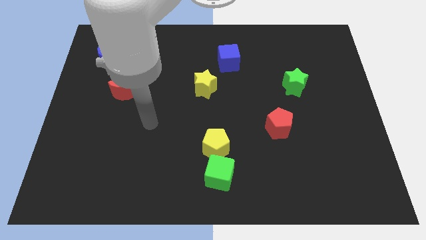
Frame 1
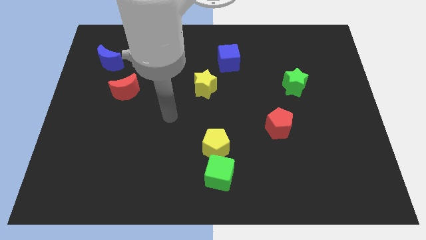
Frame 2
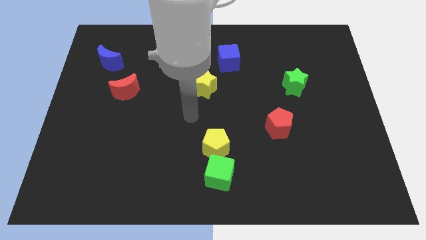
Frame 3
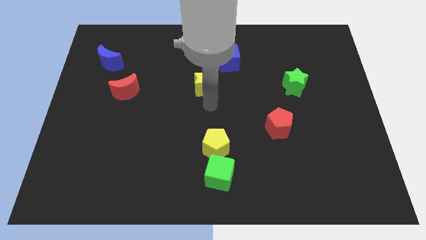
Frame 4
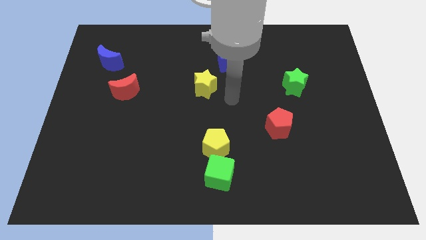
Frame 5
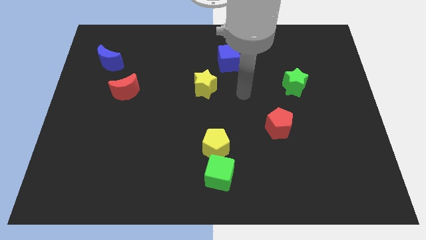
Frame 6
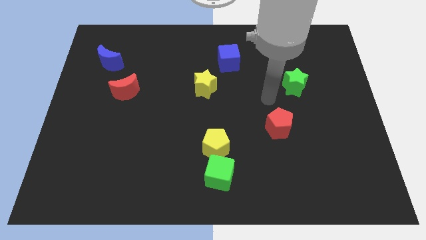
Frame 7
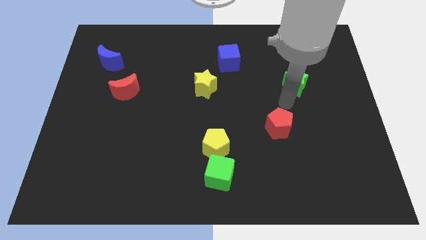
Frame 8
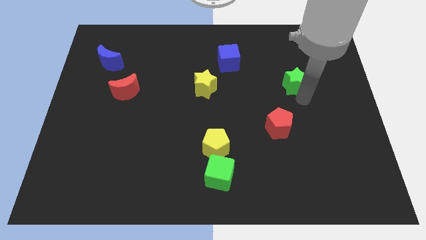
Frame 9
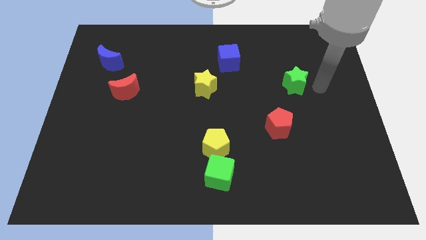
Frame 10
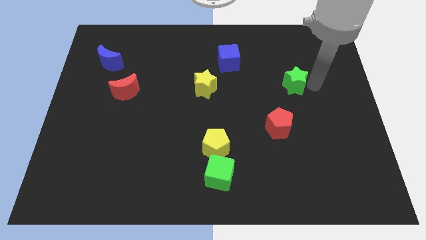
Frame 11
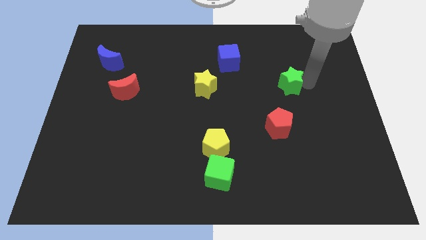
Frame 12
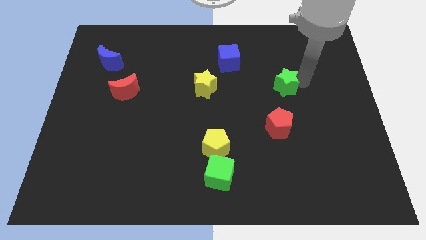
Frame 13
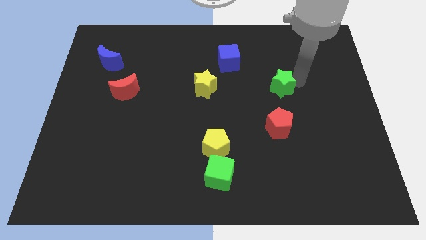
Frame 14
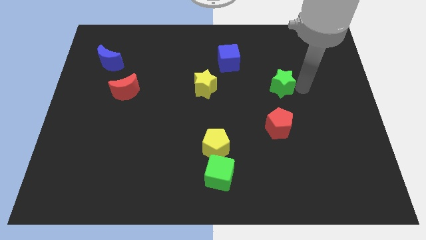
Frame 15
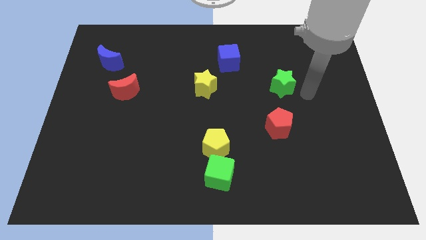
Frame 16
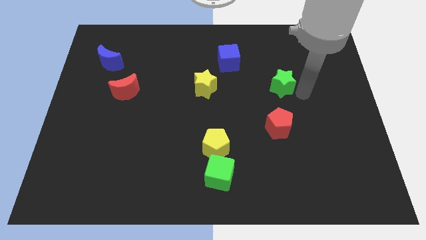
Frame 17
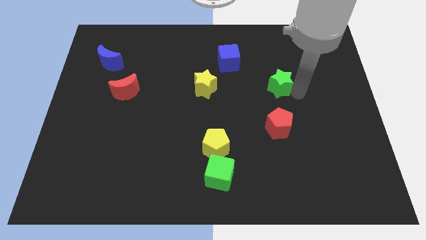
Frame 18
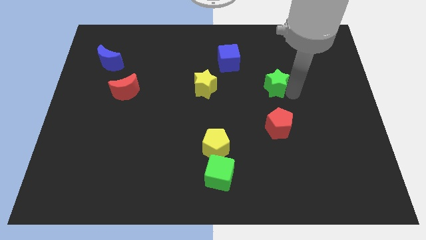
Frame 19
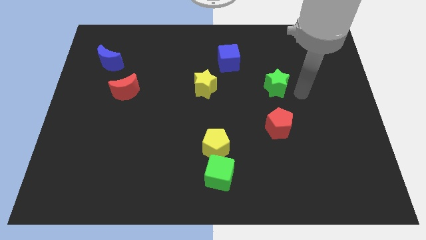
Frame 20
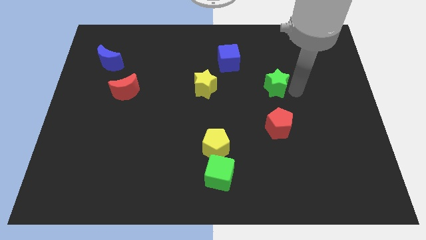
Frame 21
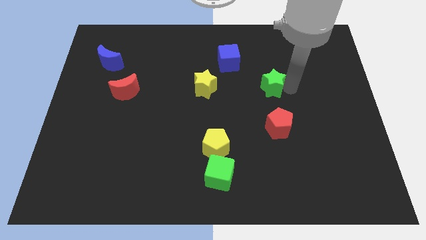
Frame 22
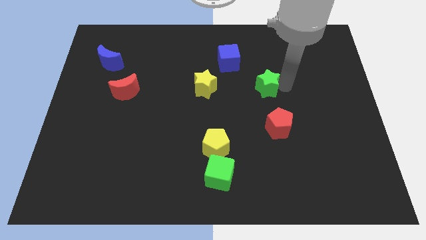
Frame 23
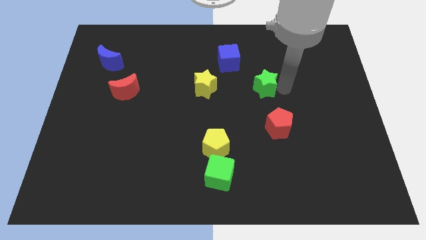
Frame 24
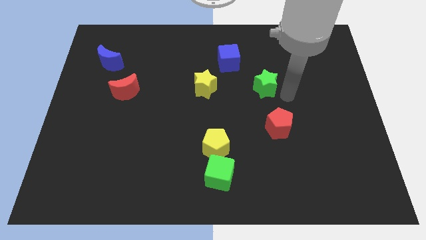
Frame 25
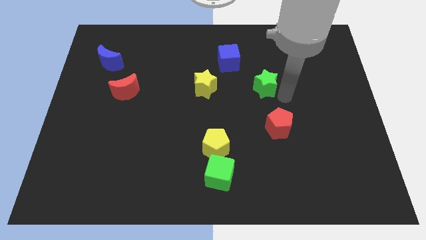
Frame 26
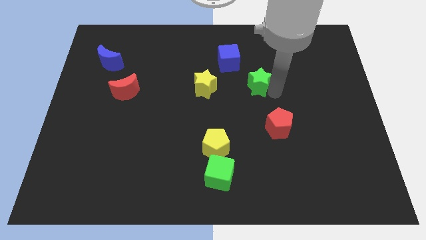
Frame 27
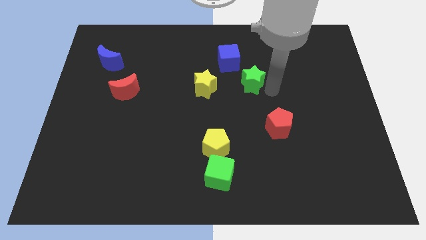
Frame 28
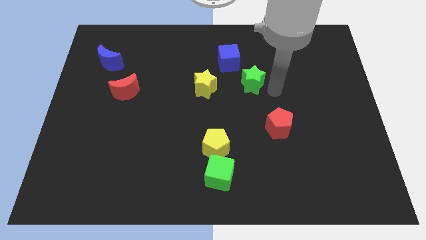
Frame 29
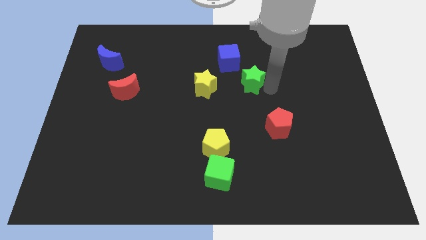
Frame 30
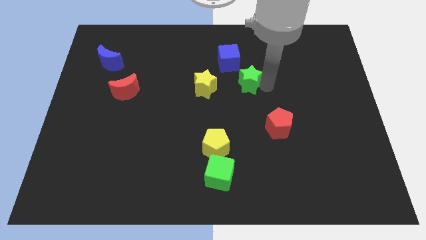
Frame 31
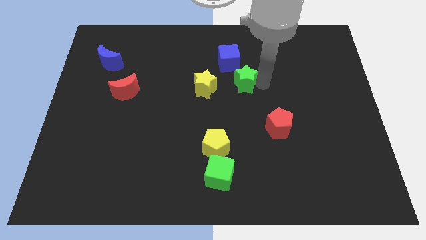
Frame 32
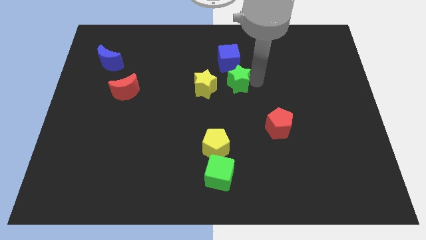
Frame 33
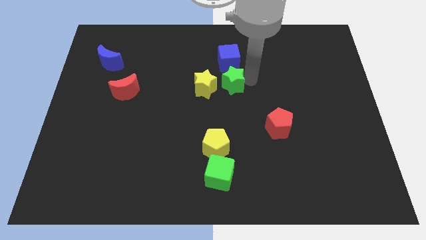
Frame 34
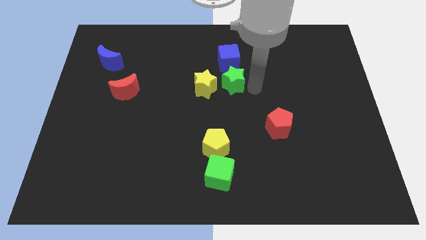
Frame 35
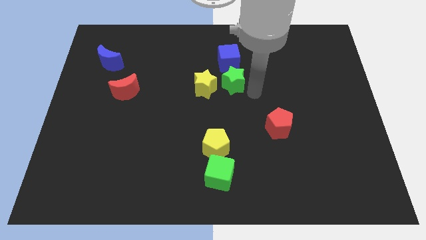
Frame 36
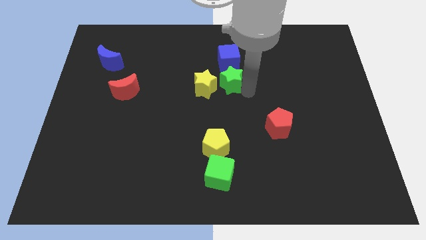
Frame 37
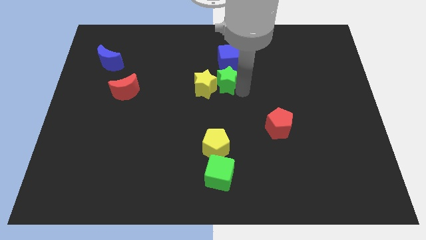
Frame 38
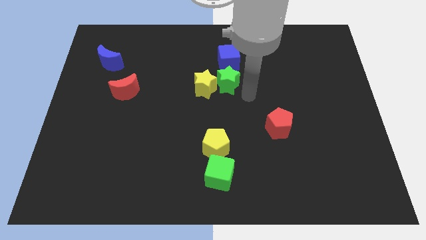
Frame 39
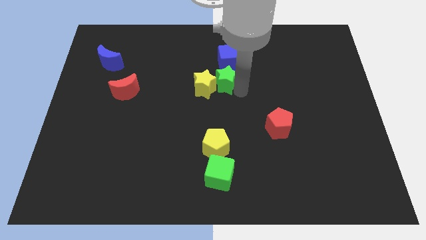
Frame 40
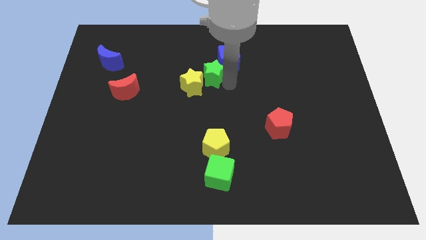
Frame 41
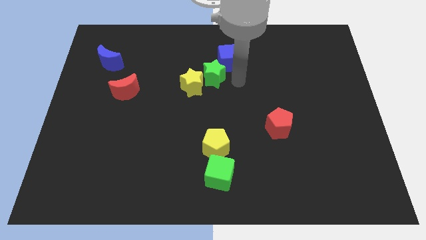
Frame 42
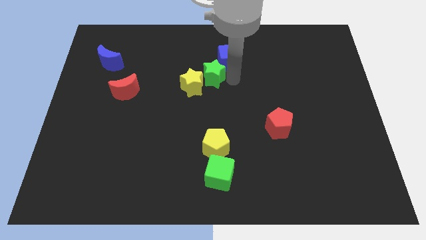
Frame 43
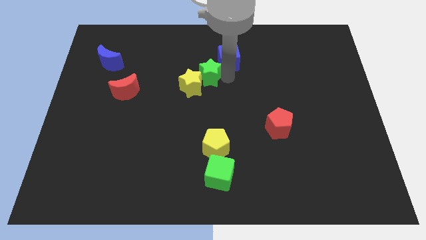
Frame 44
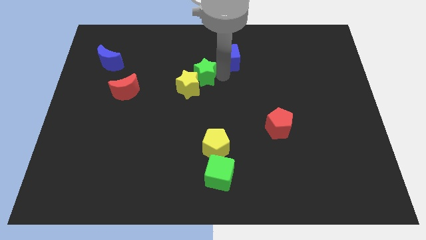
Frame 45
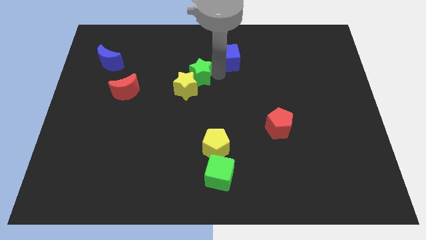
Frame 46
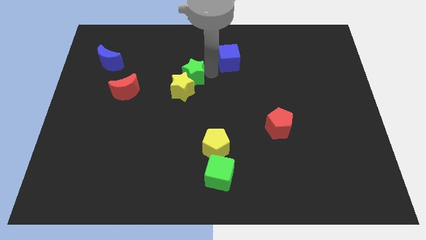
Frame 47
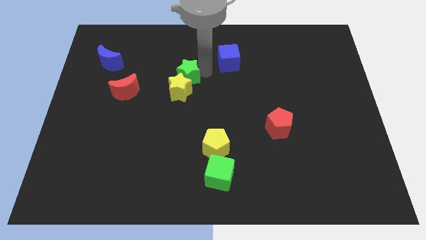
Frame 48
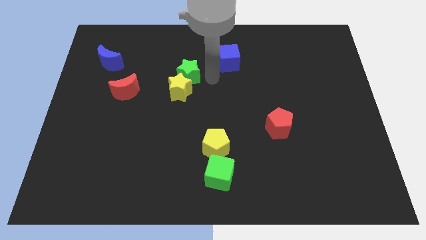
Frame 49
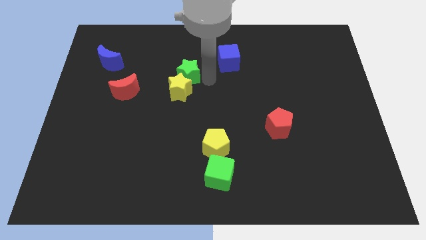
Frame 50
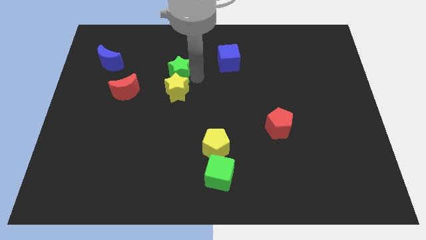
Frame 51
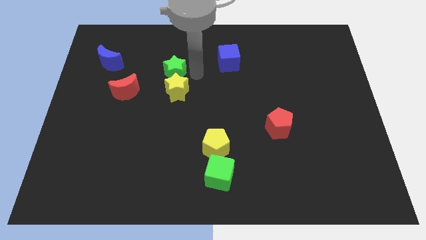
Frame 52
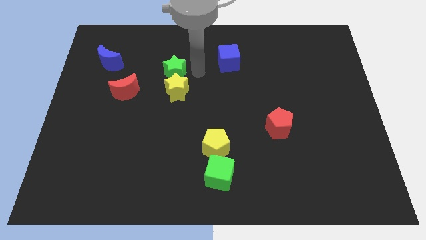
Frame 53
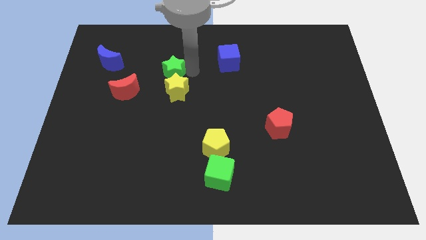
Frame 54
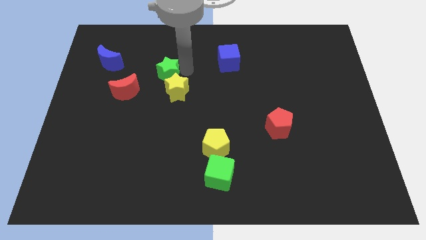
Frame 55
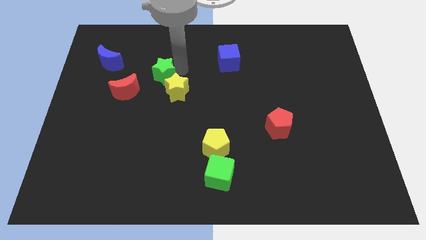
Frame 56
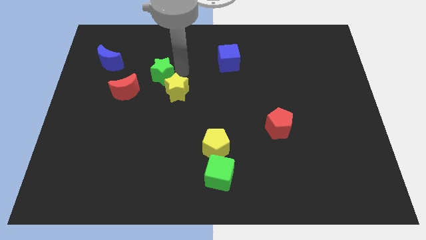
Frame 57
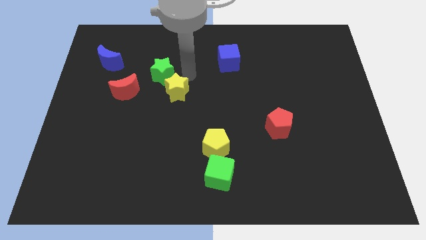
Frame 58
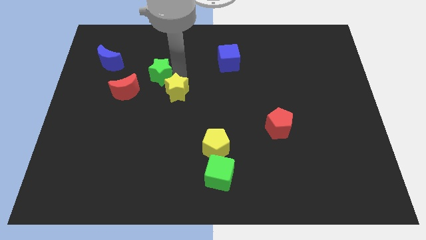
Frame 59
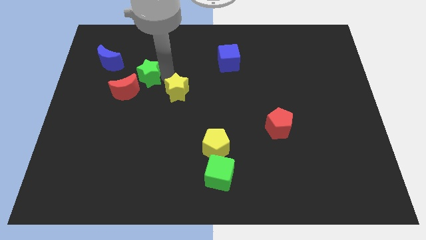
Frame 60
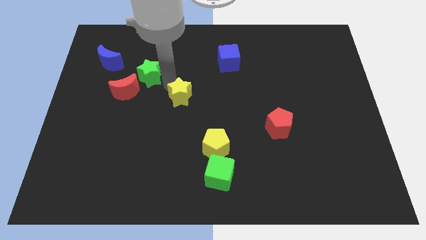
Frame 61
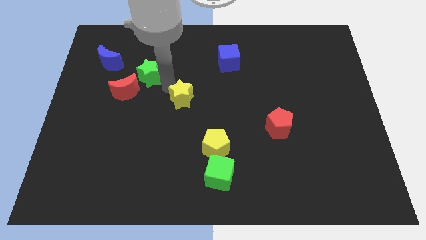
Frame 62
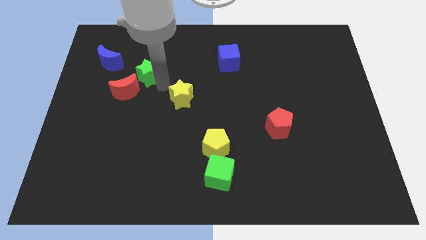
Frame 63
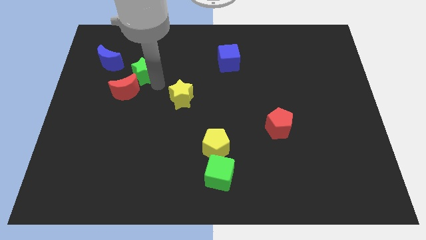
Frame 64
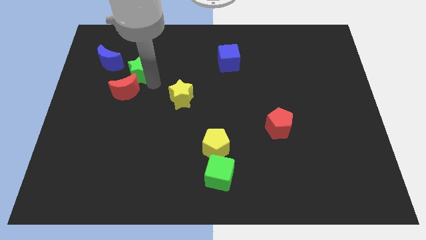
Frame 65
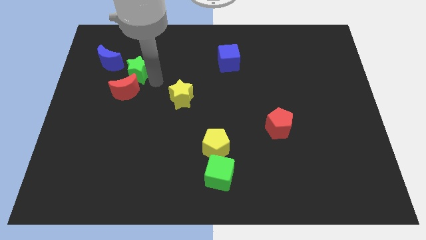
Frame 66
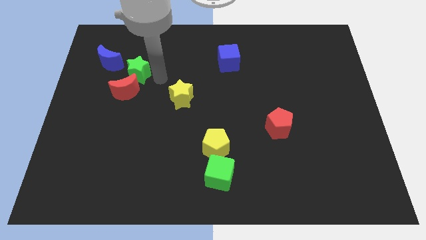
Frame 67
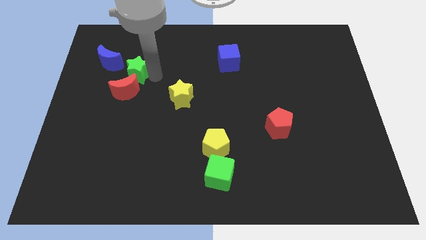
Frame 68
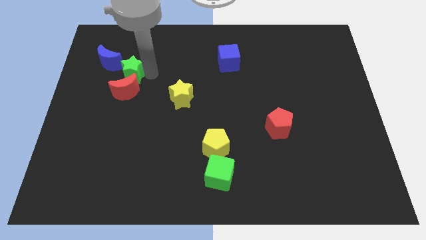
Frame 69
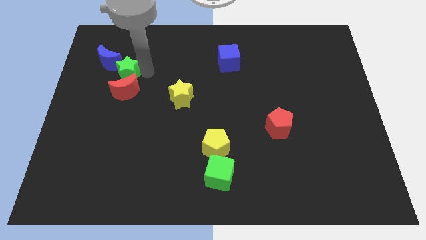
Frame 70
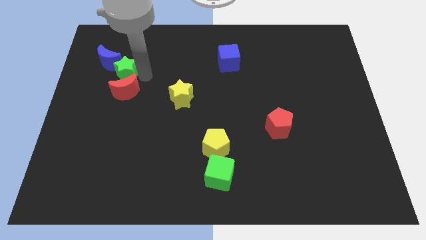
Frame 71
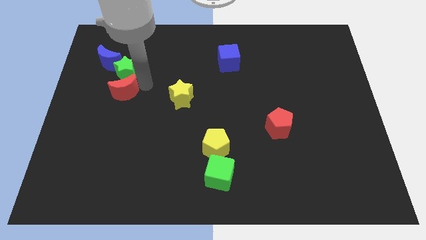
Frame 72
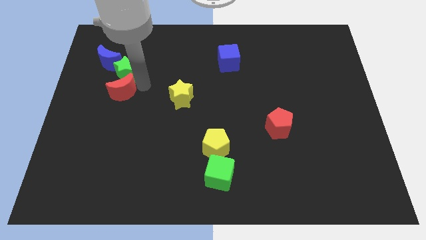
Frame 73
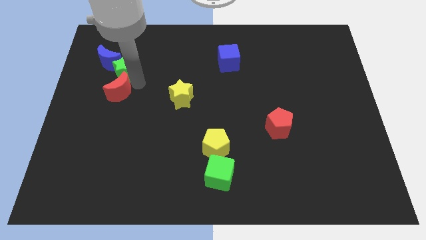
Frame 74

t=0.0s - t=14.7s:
put the green star next to the blue moon
